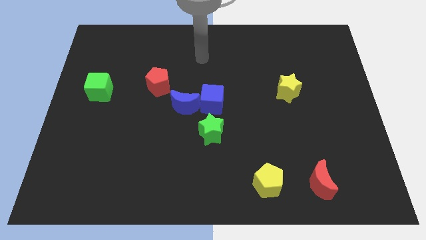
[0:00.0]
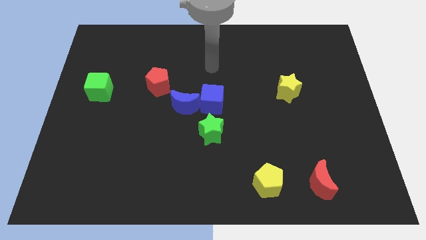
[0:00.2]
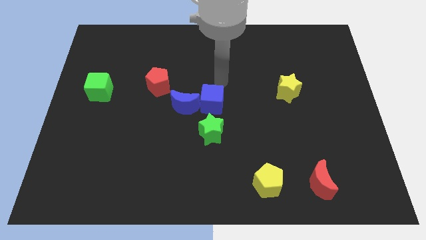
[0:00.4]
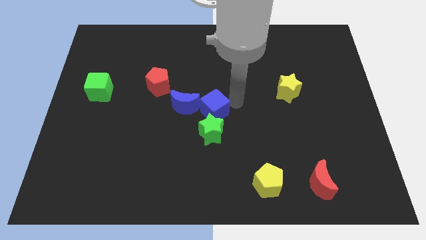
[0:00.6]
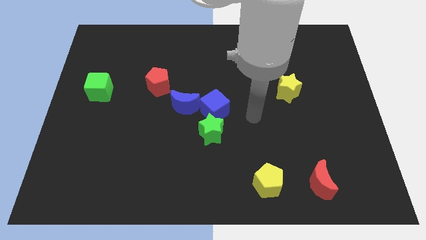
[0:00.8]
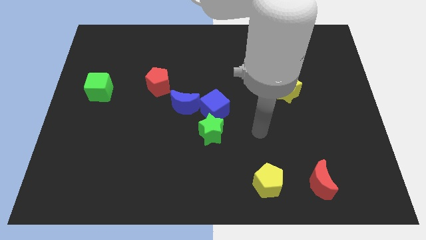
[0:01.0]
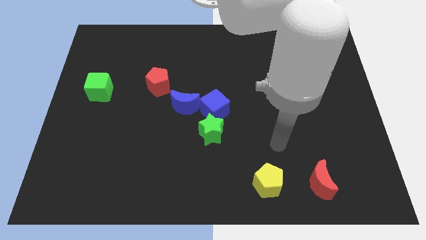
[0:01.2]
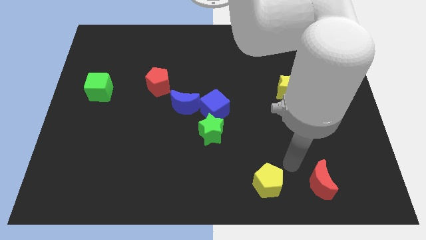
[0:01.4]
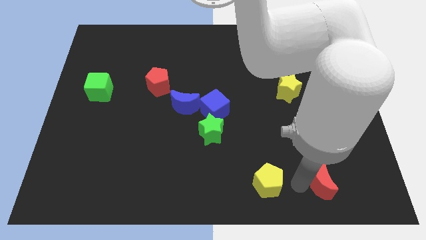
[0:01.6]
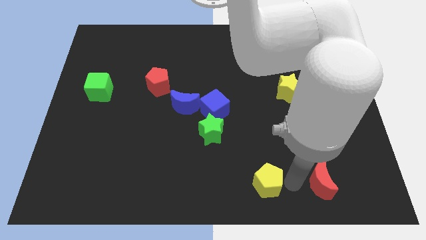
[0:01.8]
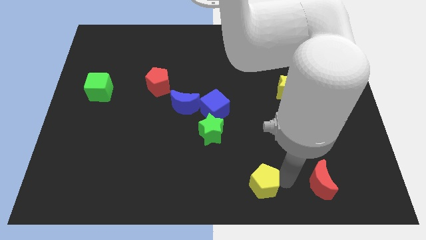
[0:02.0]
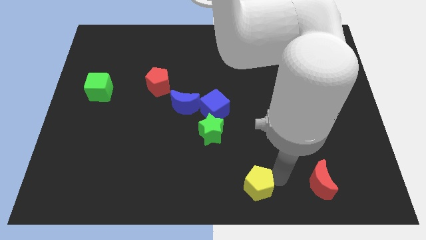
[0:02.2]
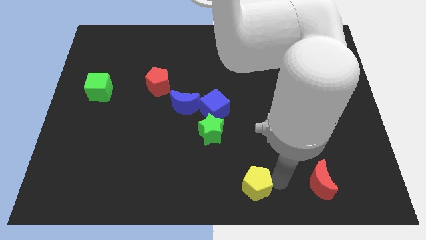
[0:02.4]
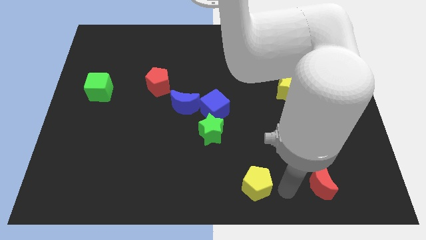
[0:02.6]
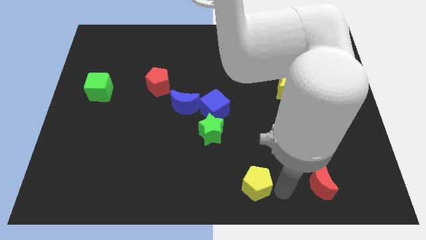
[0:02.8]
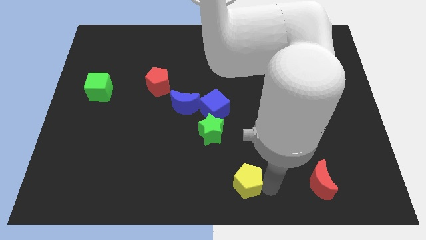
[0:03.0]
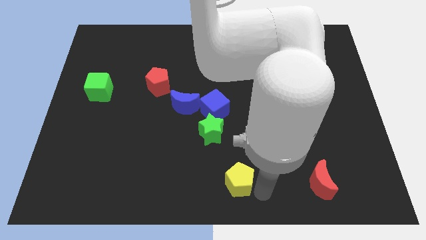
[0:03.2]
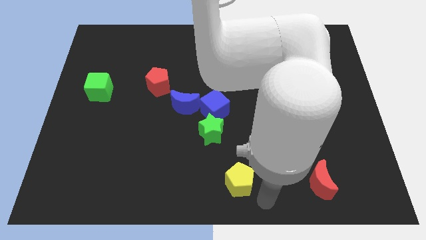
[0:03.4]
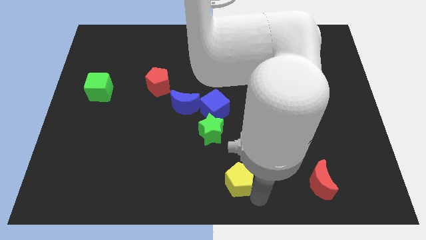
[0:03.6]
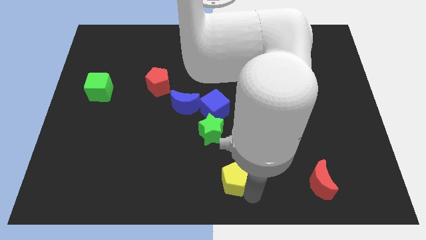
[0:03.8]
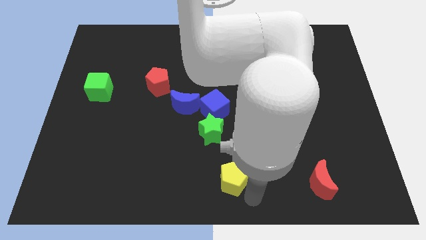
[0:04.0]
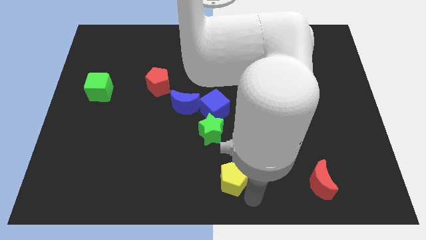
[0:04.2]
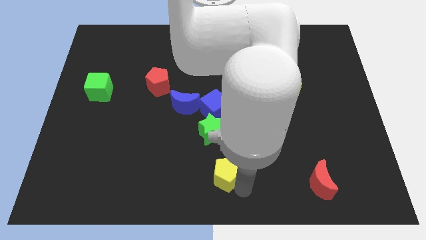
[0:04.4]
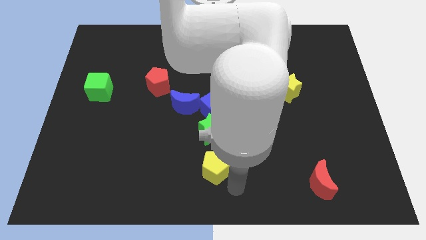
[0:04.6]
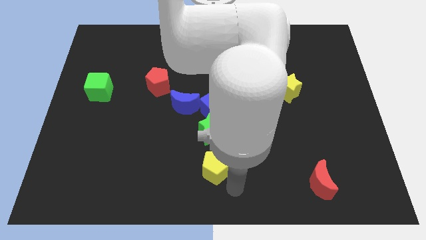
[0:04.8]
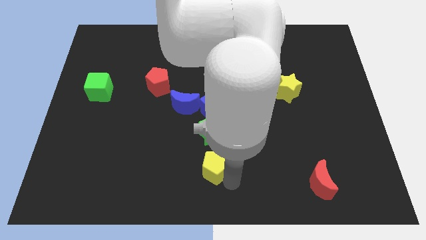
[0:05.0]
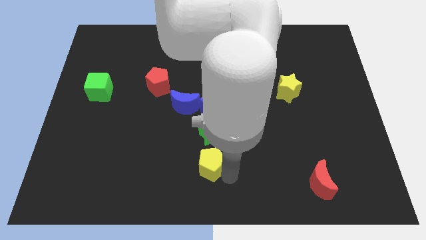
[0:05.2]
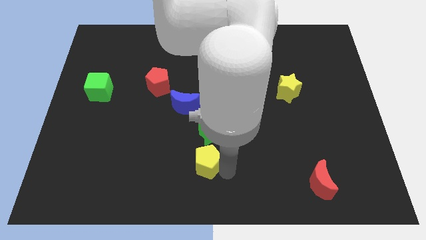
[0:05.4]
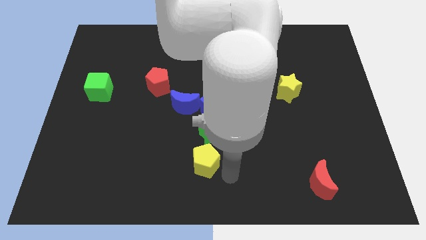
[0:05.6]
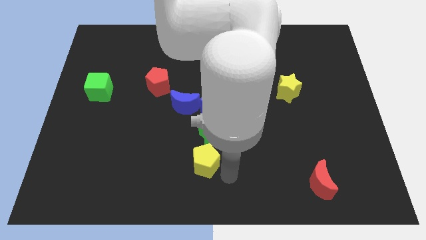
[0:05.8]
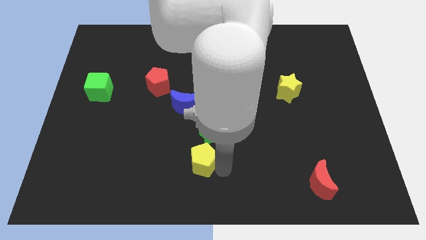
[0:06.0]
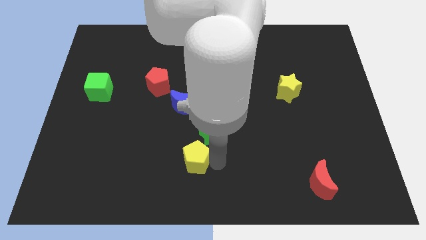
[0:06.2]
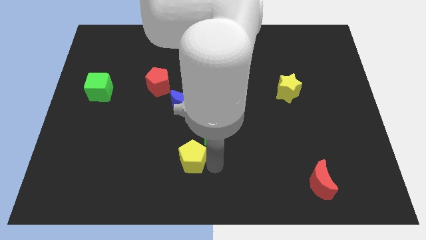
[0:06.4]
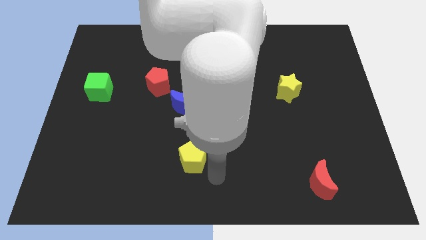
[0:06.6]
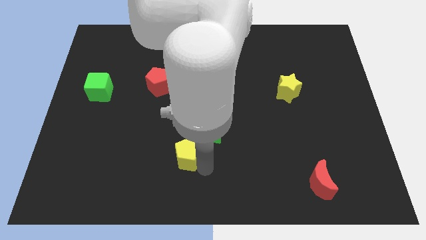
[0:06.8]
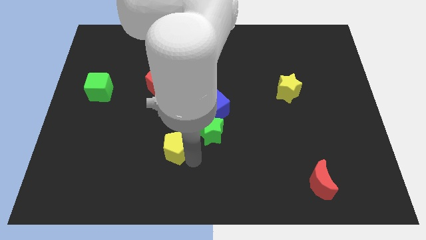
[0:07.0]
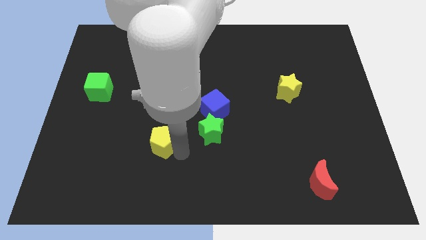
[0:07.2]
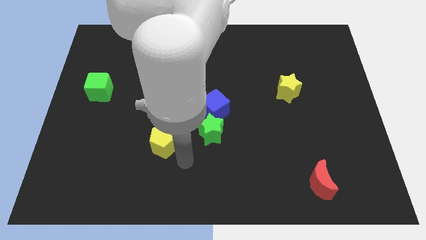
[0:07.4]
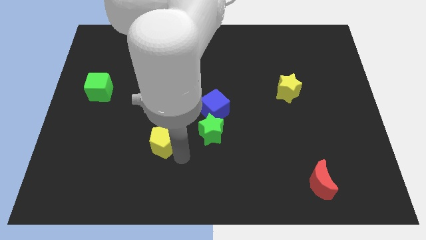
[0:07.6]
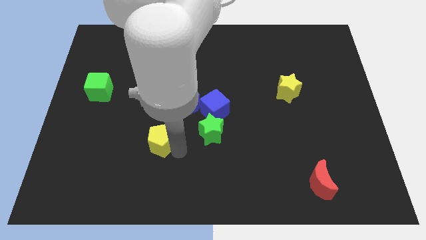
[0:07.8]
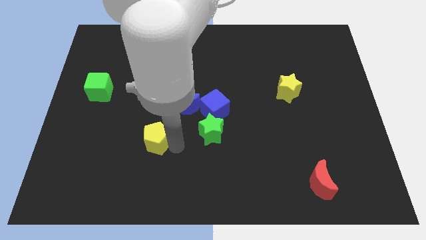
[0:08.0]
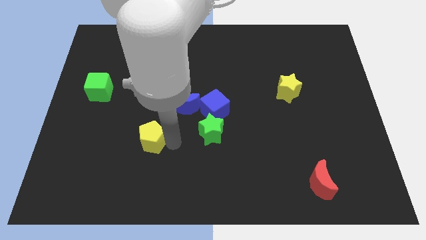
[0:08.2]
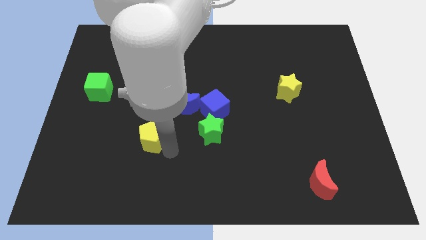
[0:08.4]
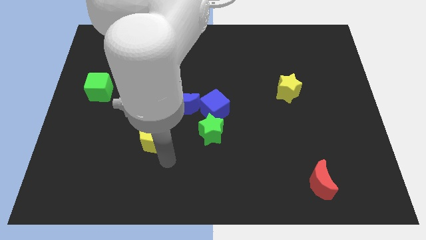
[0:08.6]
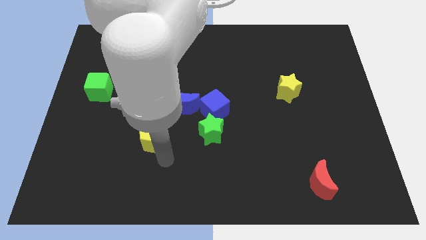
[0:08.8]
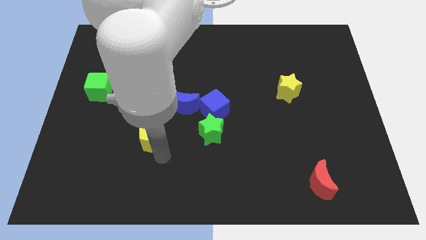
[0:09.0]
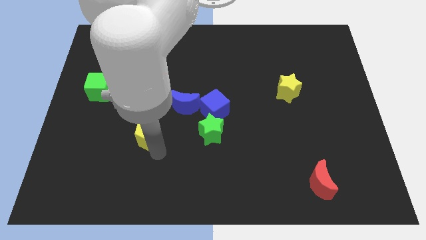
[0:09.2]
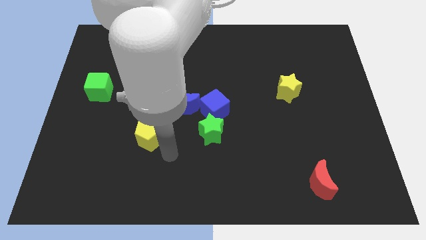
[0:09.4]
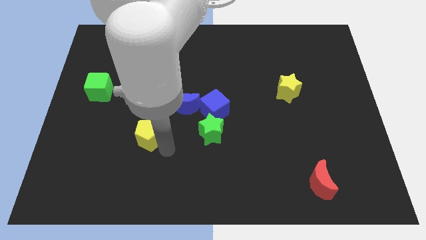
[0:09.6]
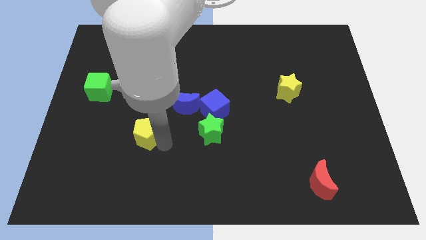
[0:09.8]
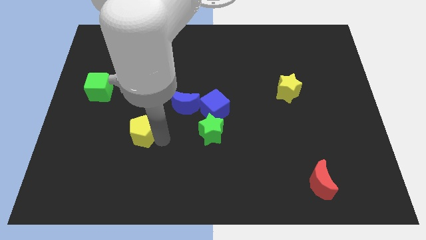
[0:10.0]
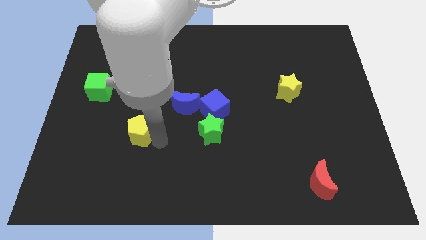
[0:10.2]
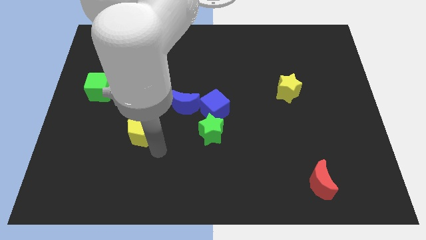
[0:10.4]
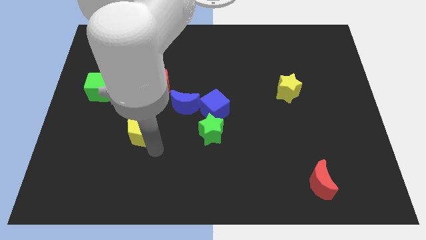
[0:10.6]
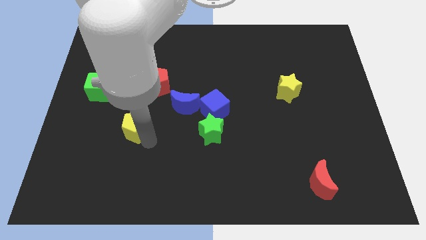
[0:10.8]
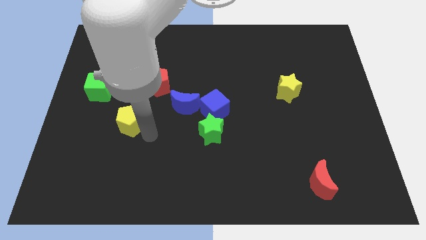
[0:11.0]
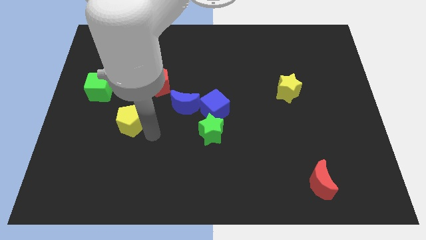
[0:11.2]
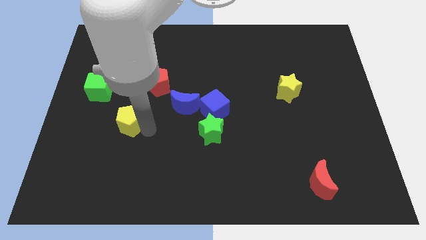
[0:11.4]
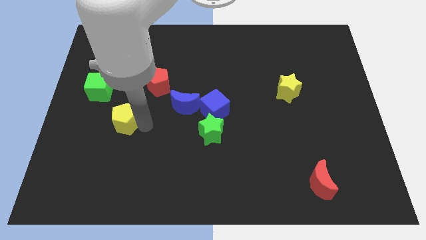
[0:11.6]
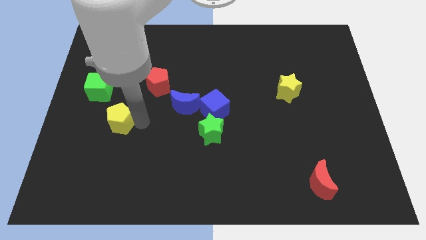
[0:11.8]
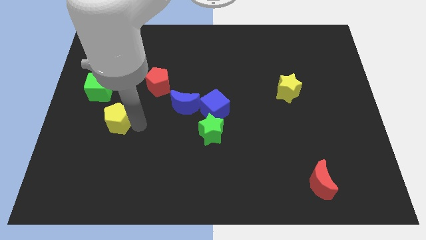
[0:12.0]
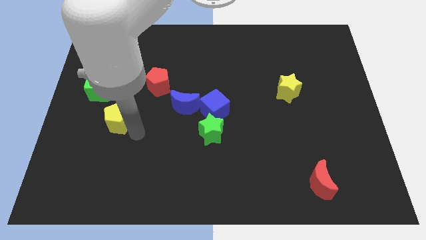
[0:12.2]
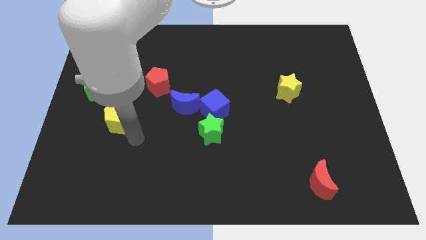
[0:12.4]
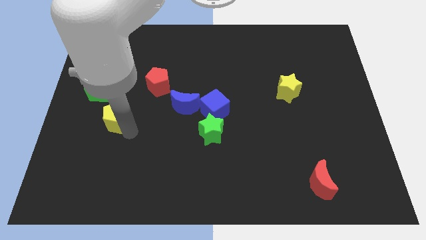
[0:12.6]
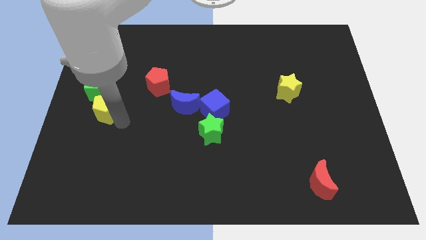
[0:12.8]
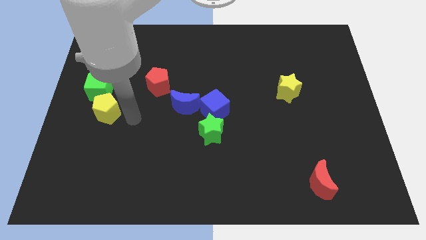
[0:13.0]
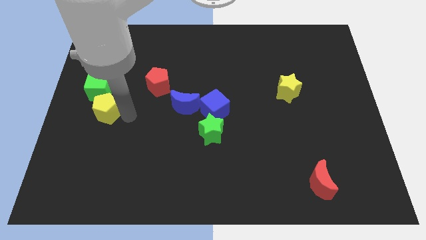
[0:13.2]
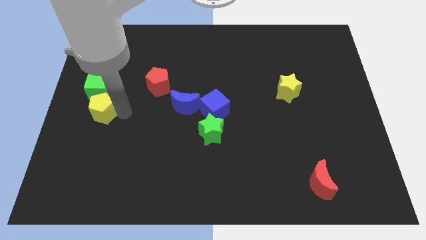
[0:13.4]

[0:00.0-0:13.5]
push the yellow pentagon to the left side

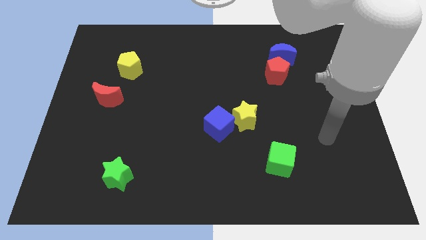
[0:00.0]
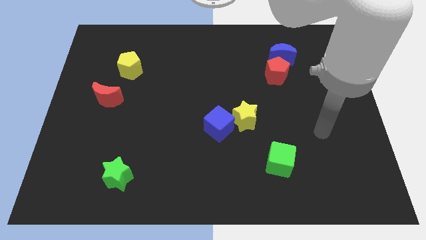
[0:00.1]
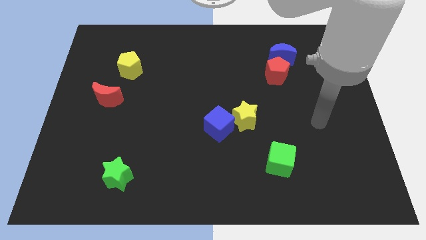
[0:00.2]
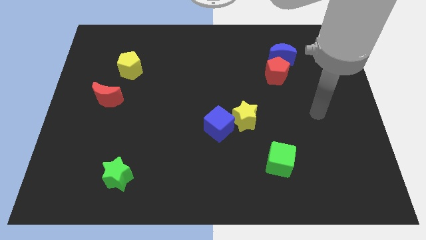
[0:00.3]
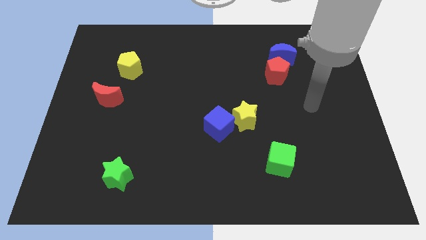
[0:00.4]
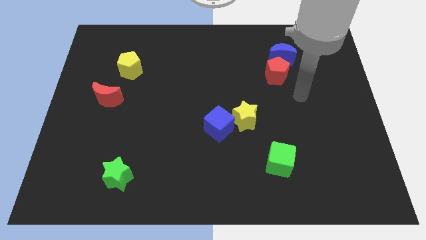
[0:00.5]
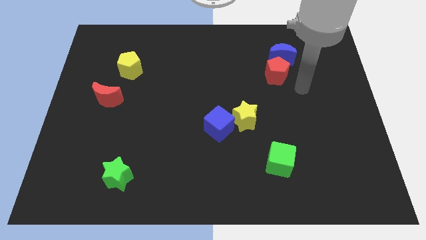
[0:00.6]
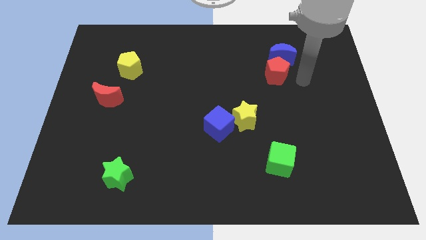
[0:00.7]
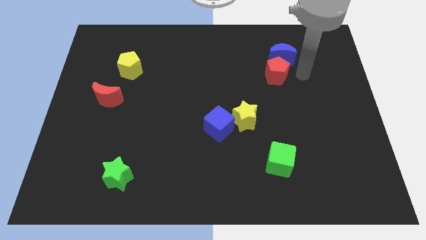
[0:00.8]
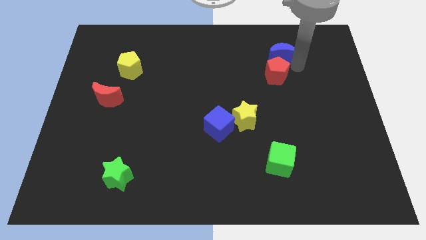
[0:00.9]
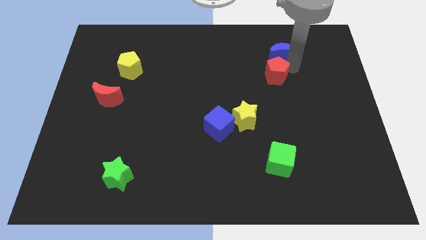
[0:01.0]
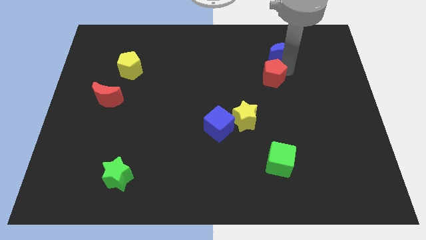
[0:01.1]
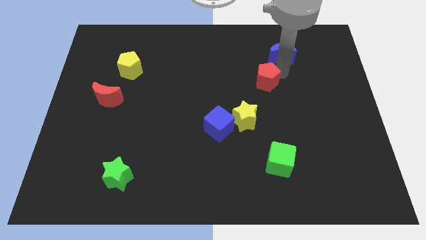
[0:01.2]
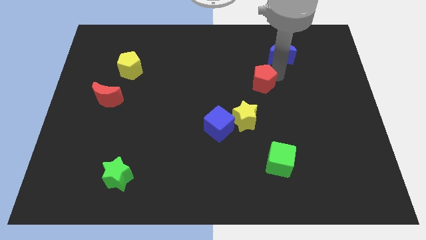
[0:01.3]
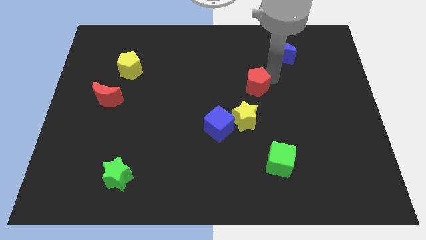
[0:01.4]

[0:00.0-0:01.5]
slide the red pentagon to the center of the board
